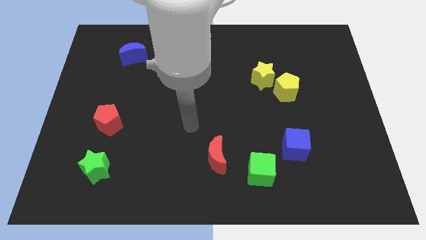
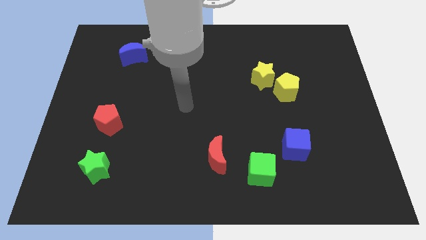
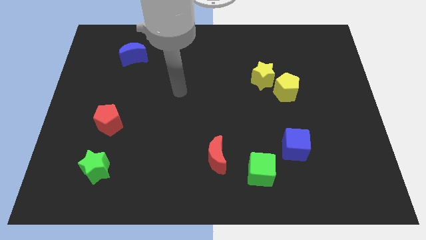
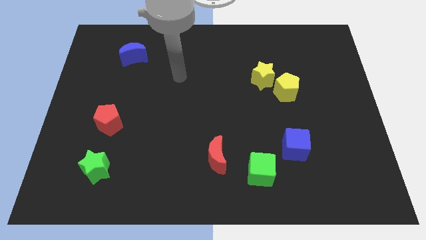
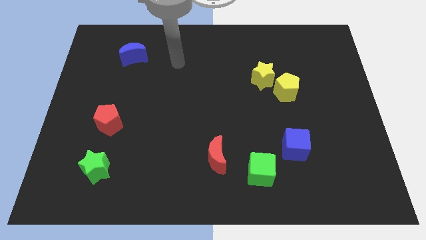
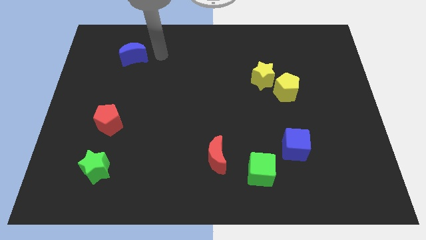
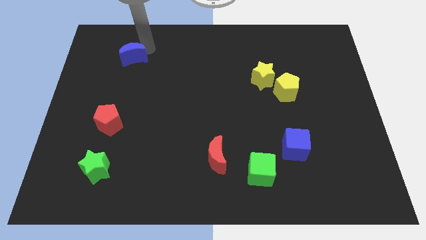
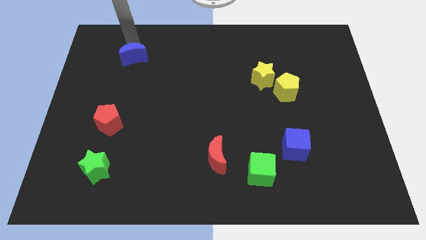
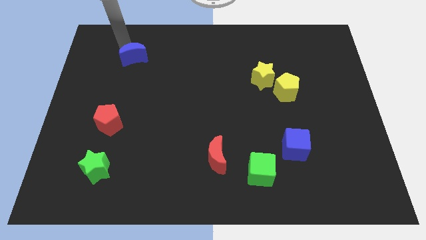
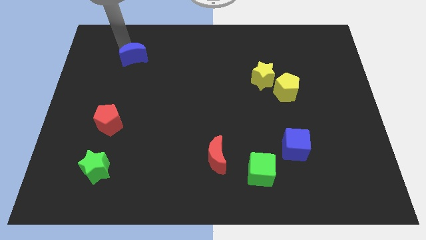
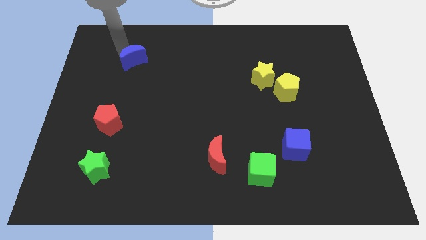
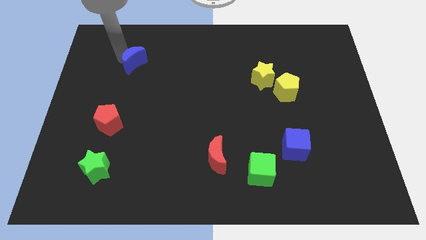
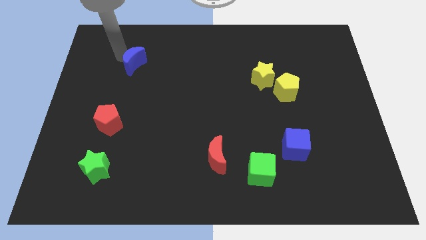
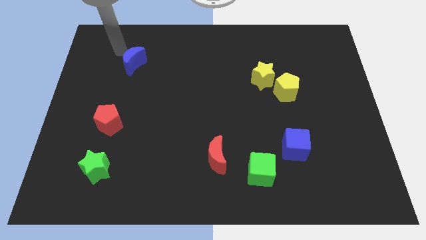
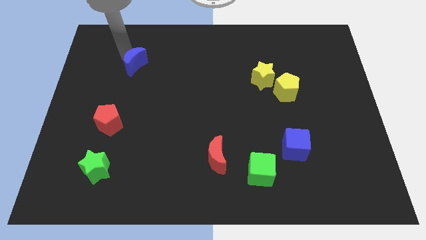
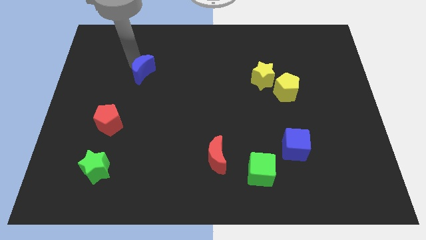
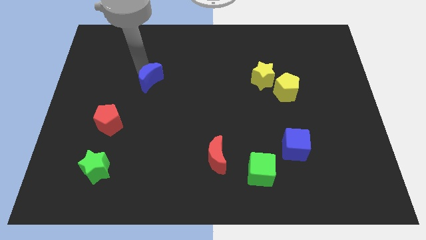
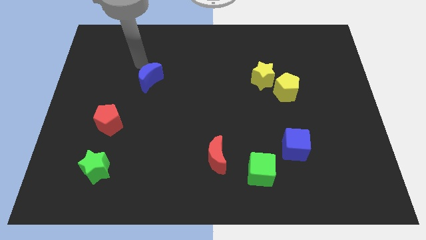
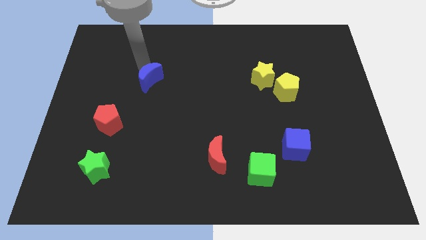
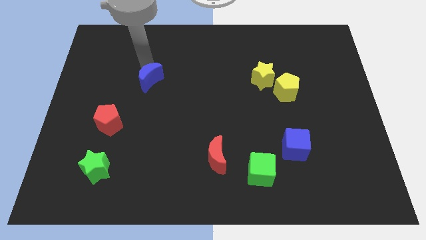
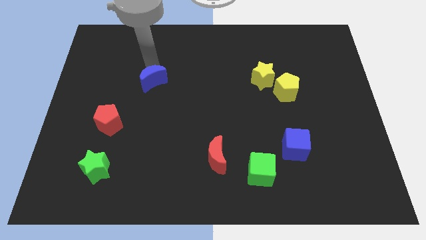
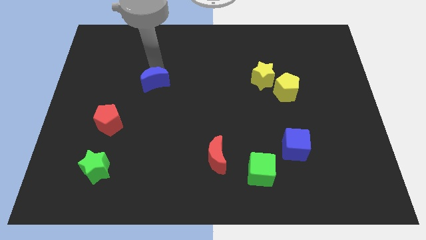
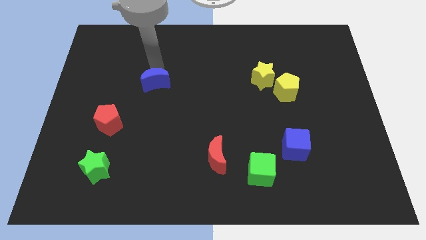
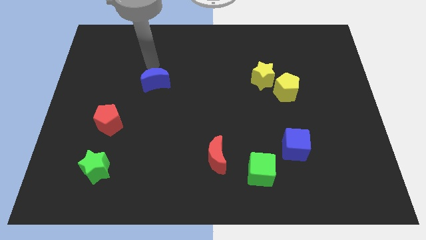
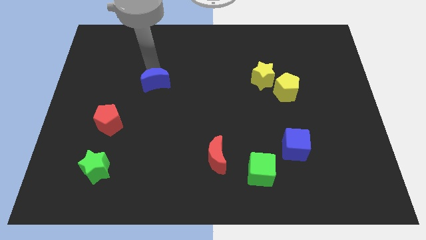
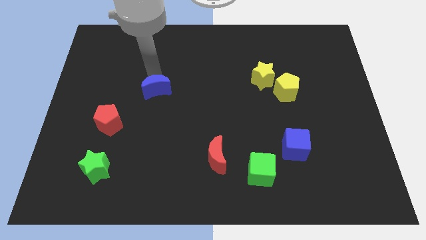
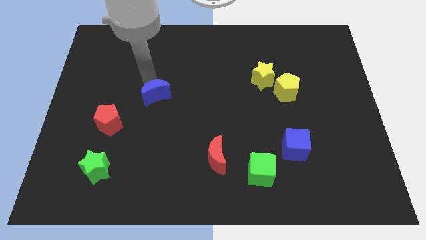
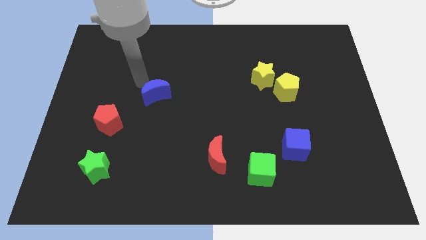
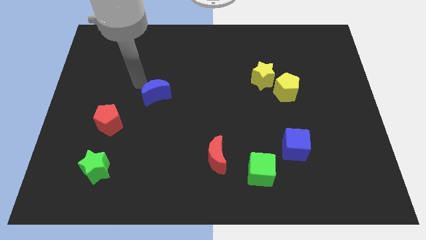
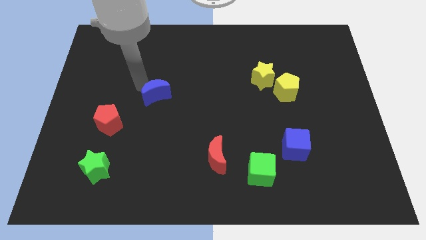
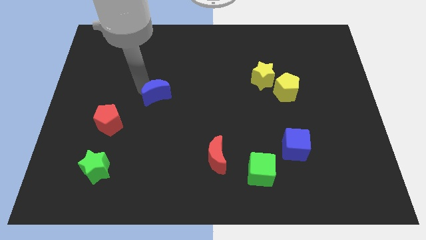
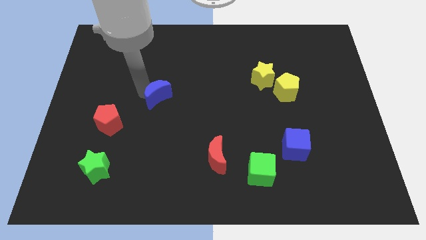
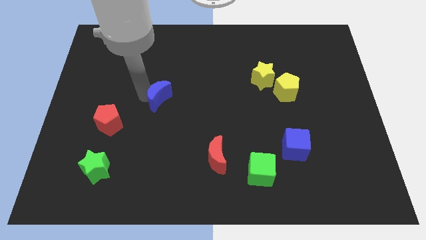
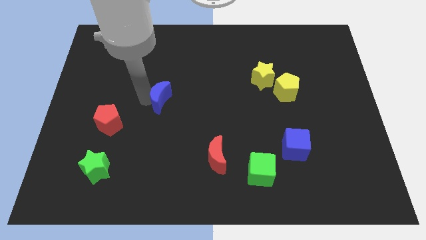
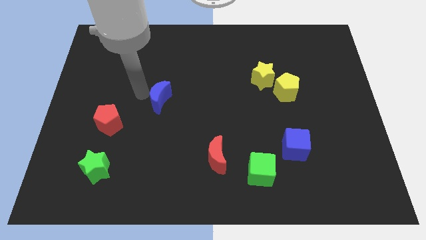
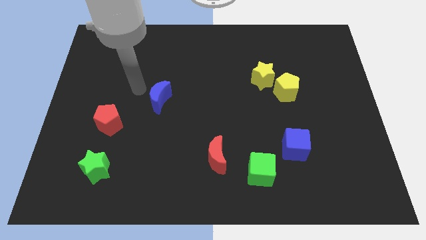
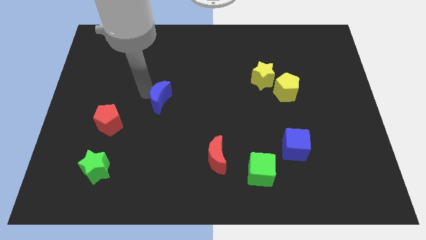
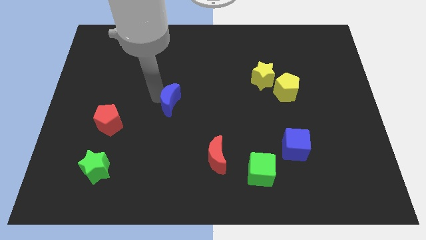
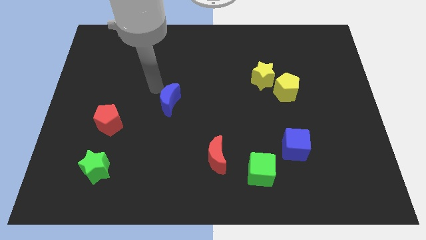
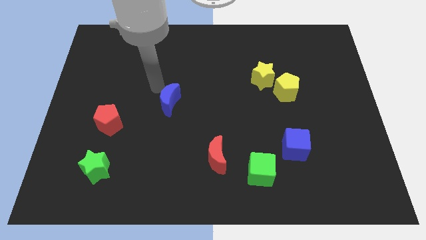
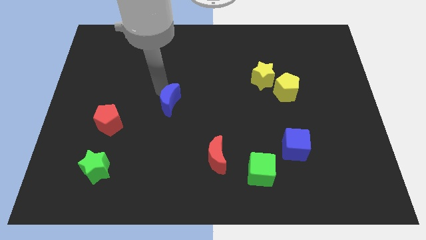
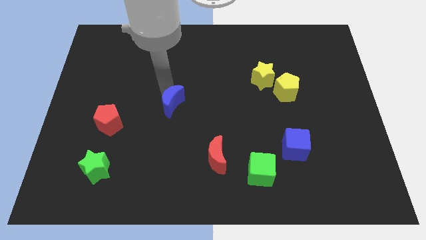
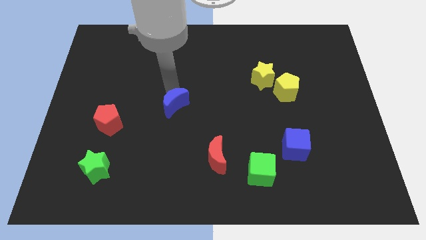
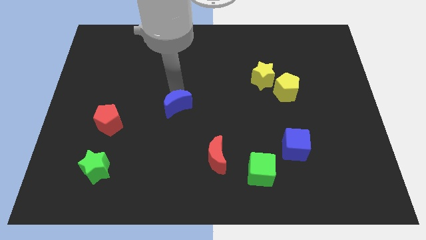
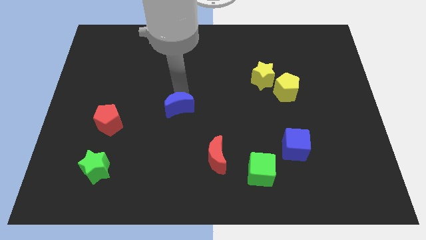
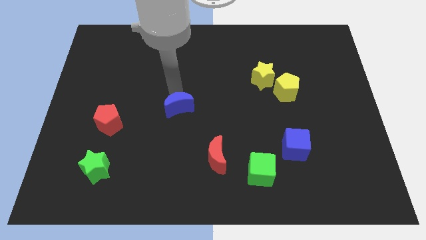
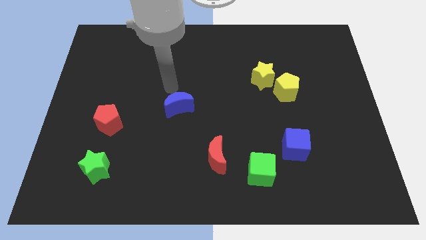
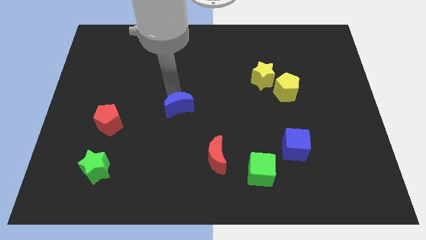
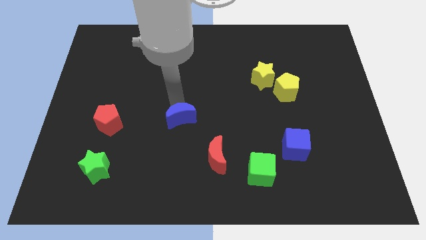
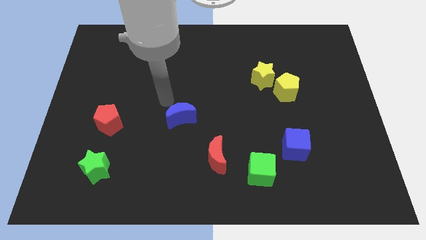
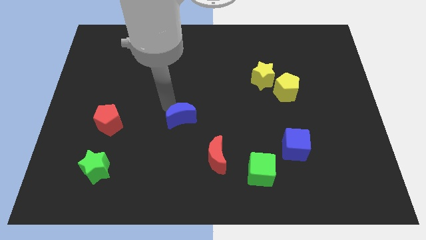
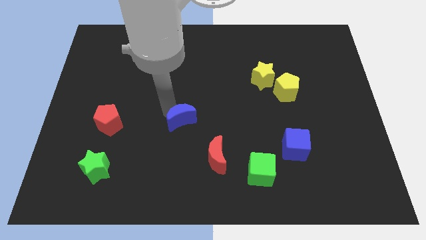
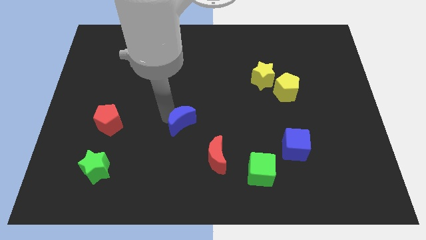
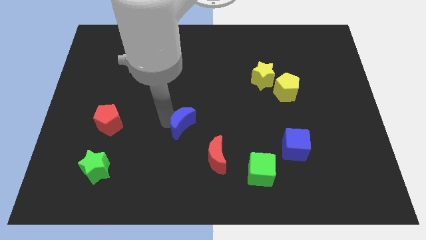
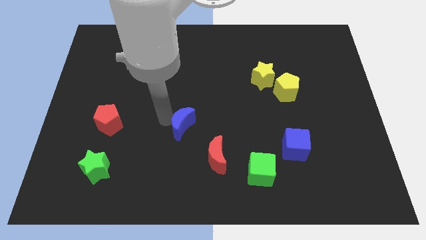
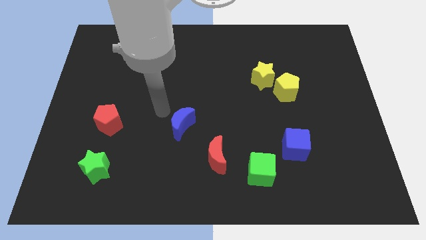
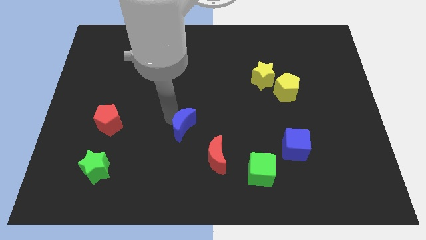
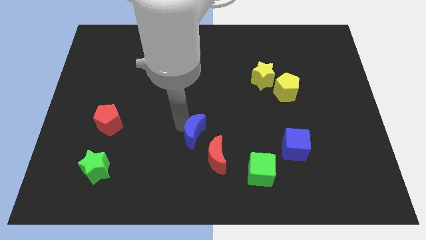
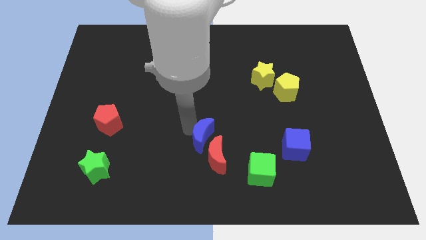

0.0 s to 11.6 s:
put the blue moon close to the red moon

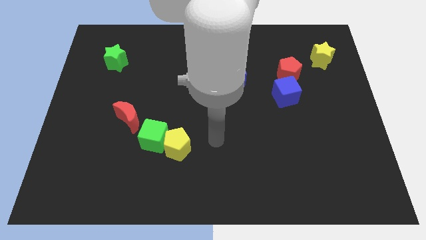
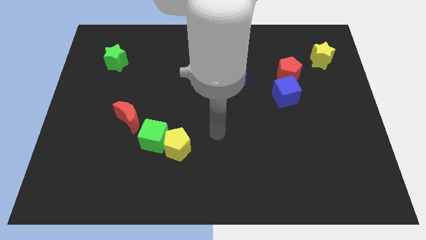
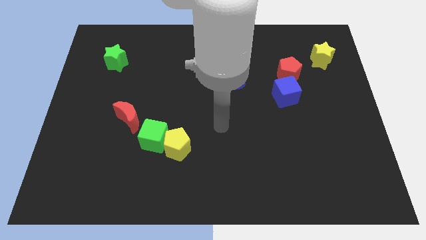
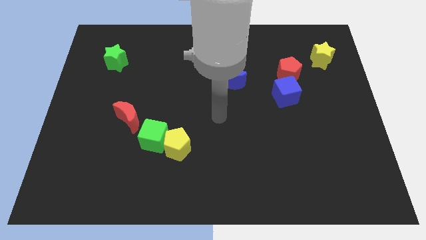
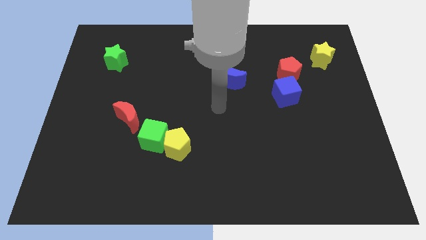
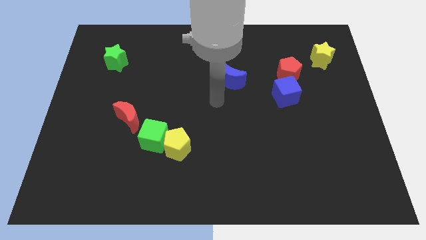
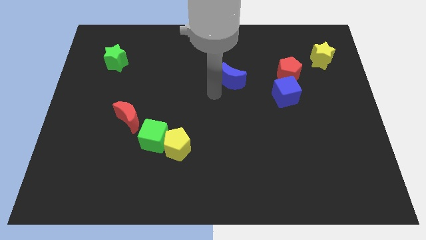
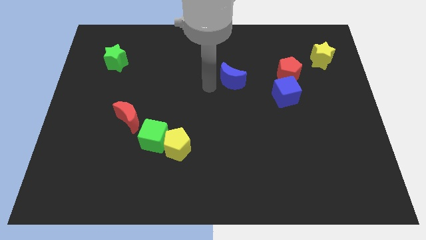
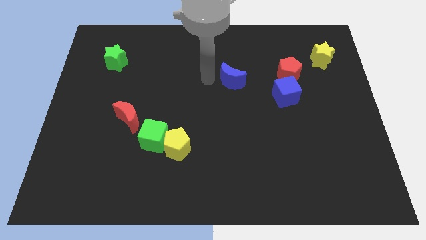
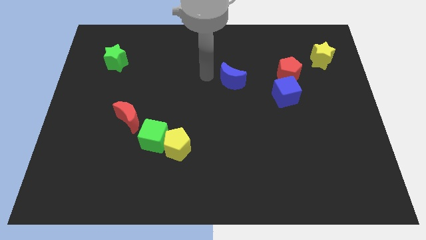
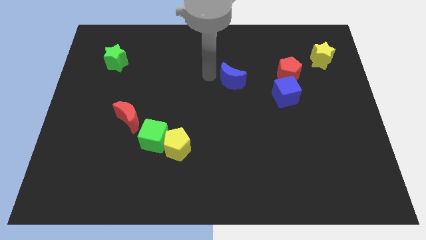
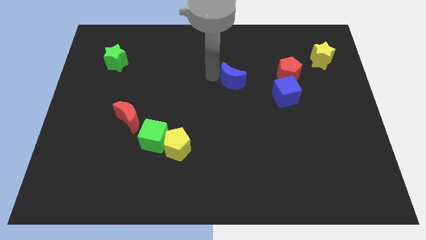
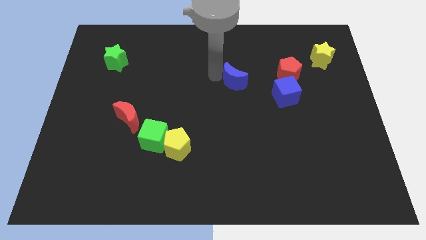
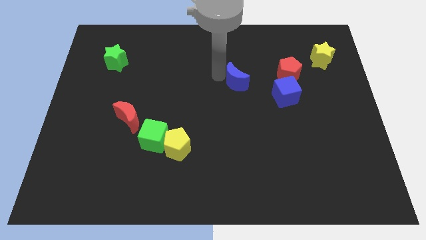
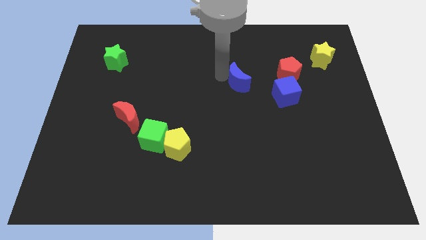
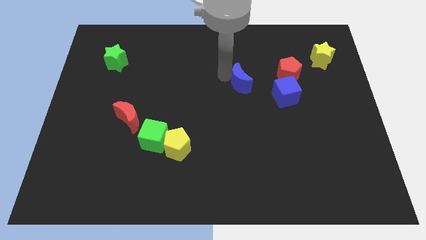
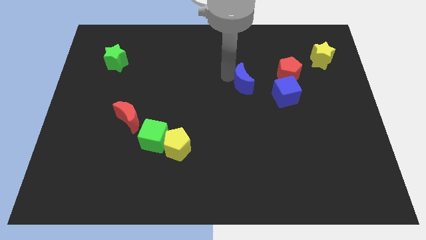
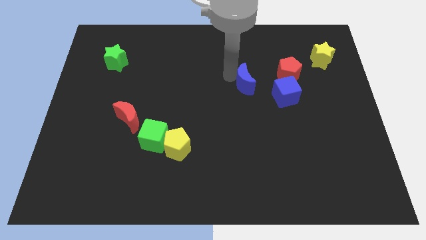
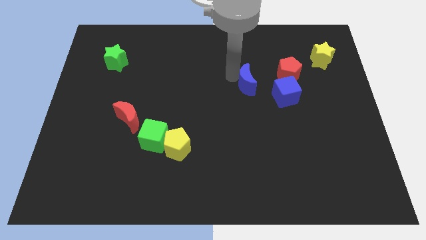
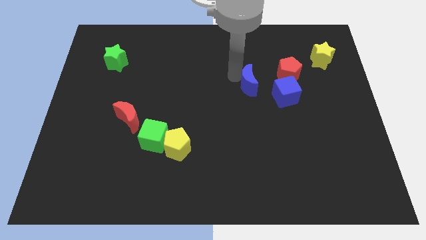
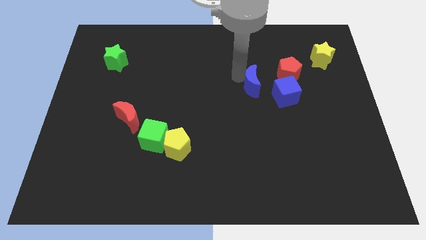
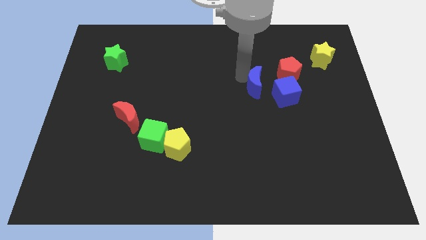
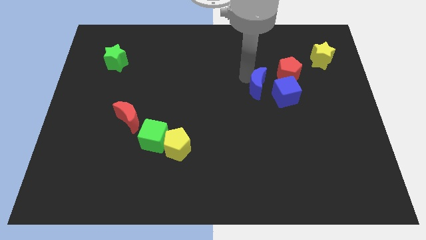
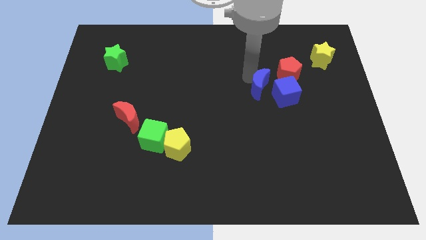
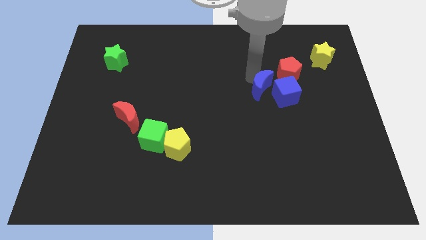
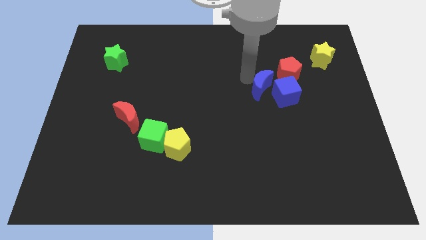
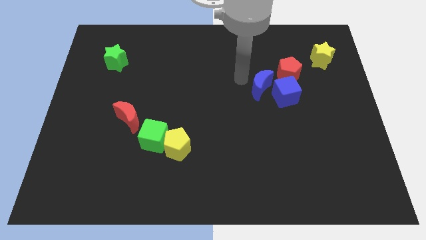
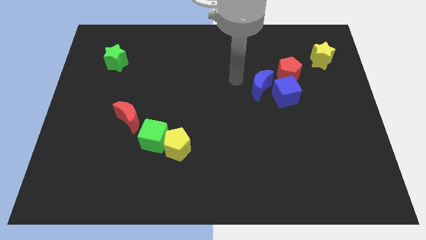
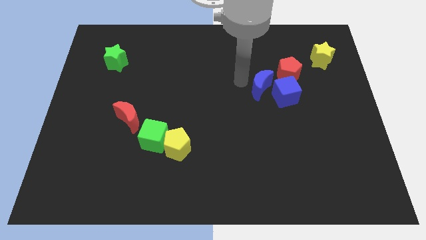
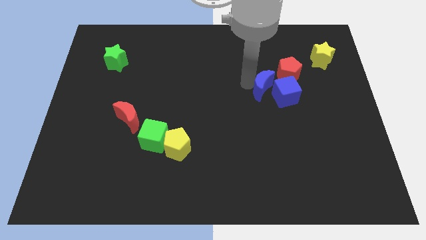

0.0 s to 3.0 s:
slide the blue moon towards the blue cube
